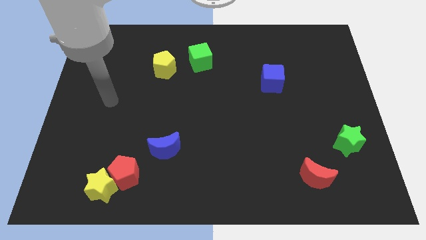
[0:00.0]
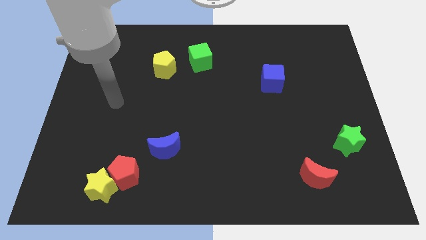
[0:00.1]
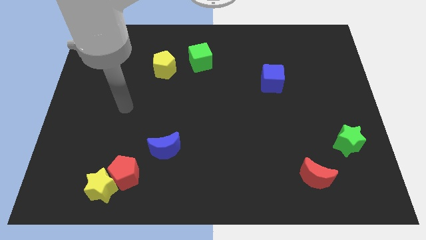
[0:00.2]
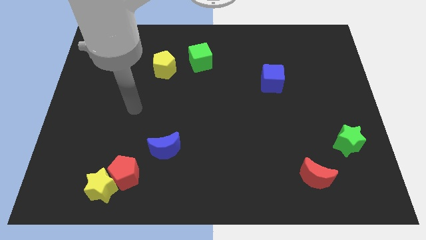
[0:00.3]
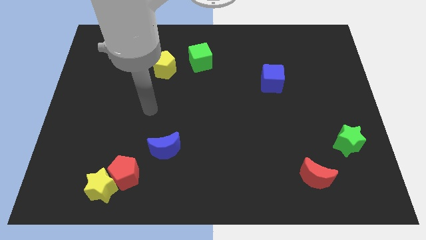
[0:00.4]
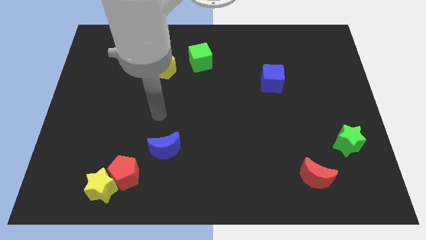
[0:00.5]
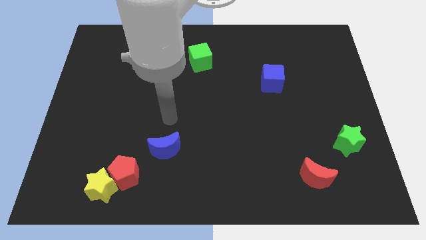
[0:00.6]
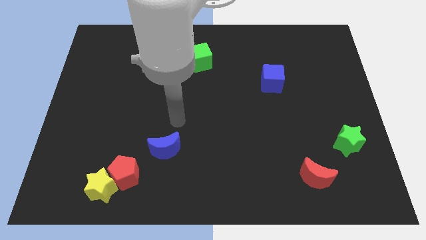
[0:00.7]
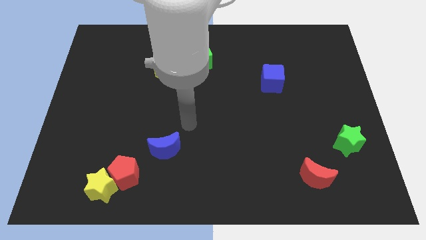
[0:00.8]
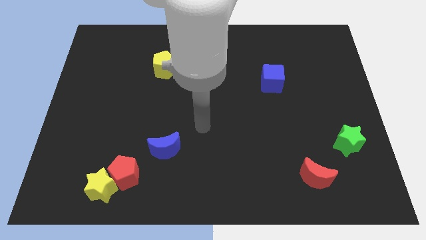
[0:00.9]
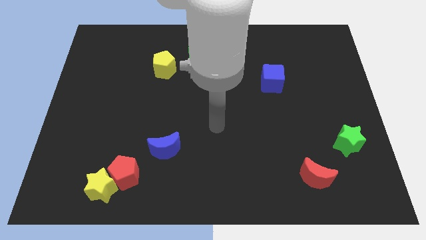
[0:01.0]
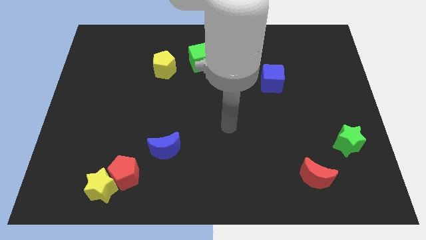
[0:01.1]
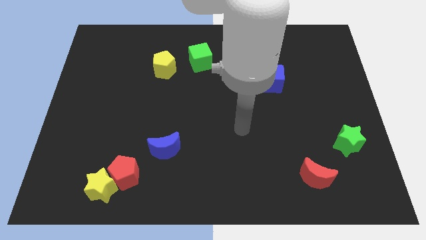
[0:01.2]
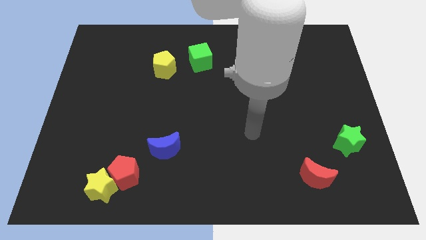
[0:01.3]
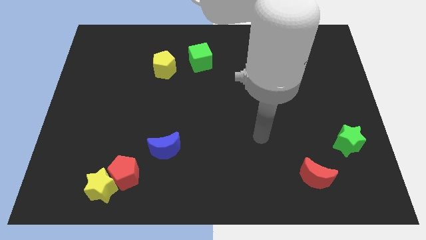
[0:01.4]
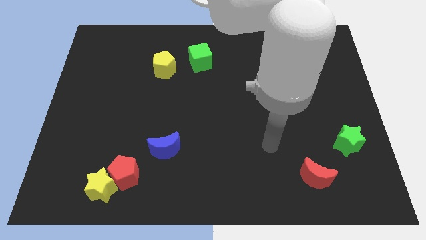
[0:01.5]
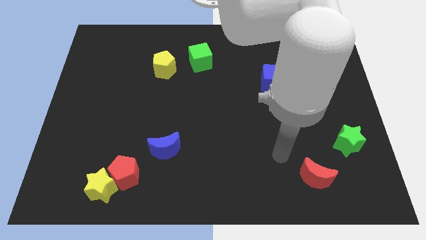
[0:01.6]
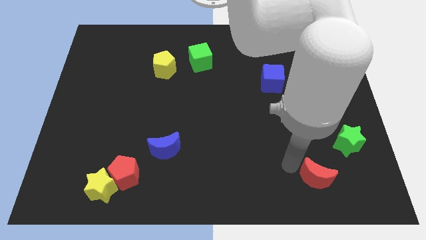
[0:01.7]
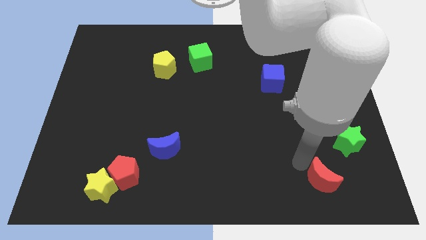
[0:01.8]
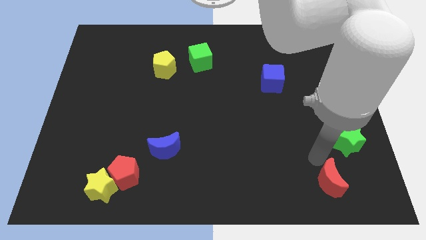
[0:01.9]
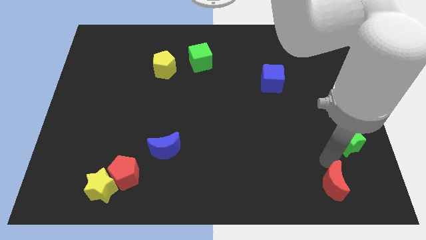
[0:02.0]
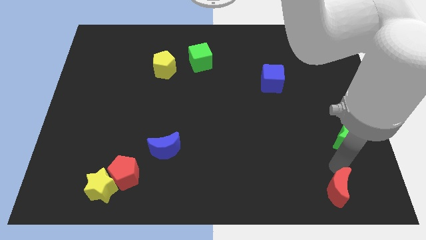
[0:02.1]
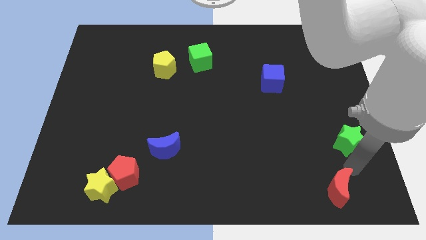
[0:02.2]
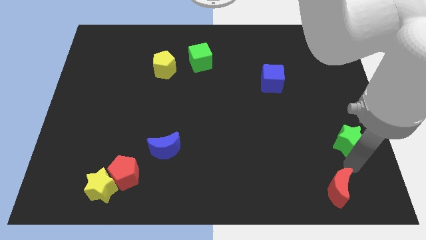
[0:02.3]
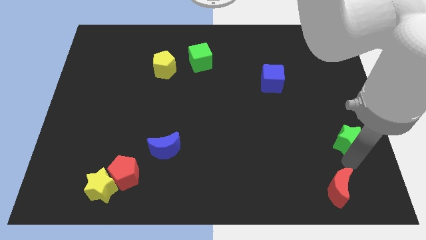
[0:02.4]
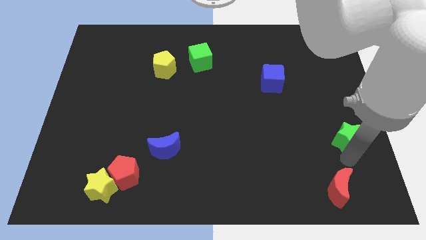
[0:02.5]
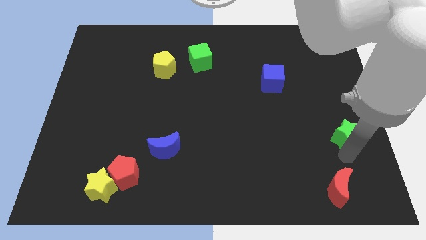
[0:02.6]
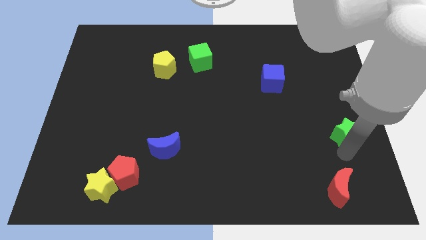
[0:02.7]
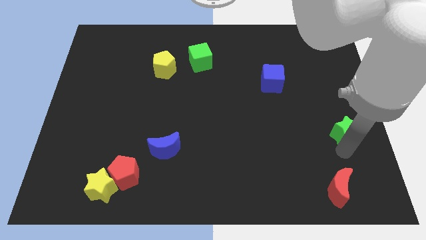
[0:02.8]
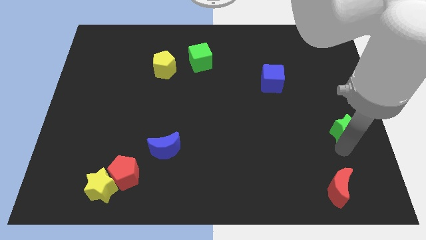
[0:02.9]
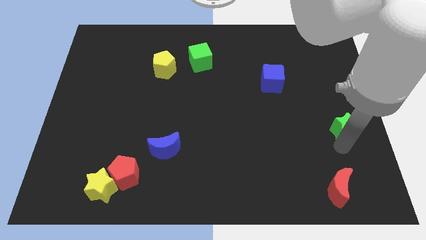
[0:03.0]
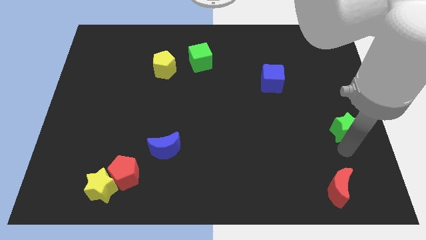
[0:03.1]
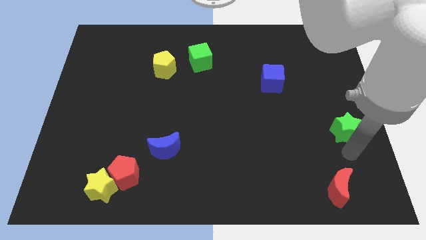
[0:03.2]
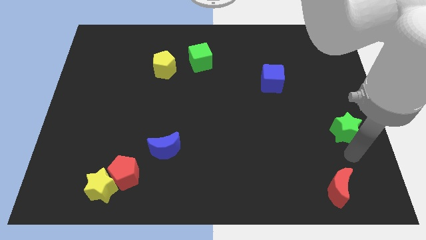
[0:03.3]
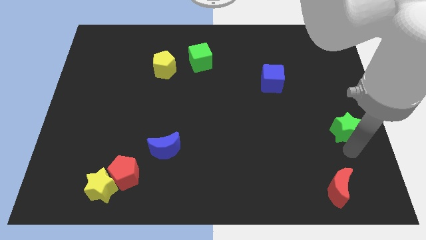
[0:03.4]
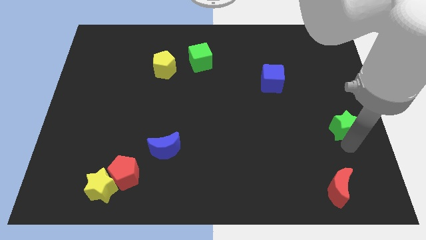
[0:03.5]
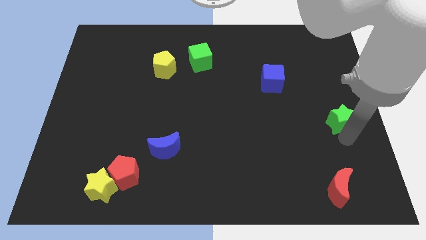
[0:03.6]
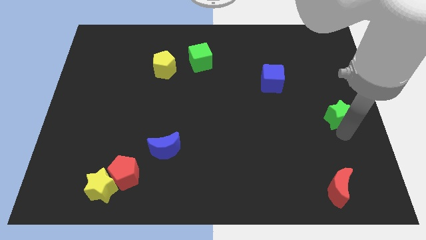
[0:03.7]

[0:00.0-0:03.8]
move the green star upwards a bit

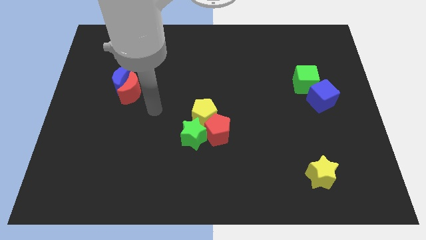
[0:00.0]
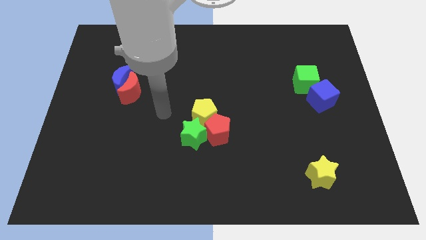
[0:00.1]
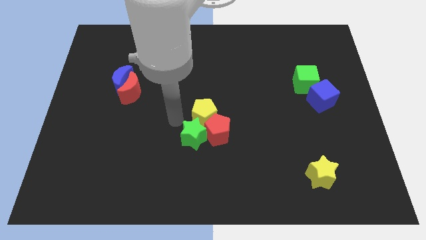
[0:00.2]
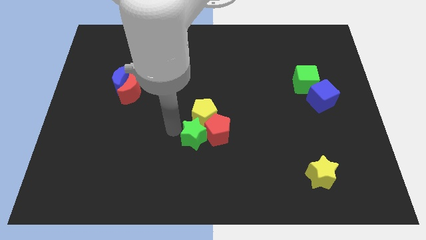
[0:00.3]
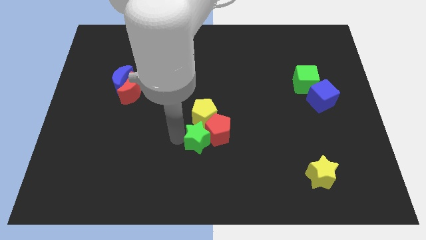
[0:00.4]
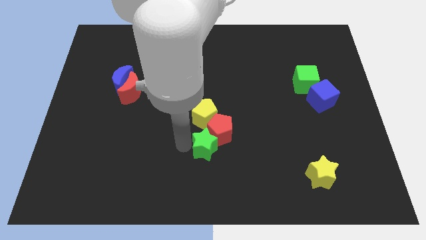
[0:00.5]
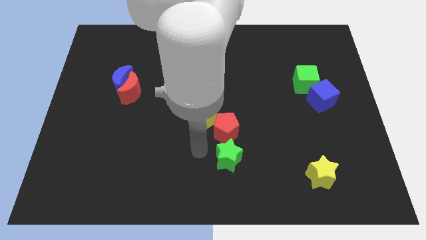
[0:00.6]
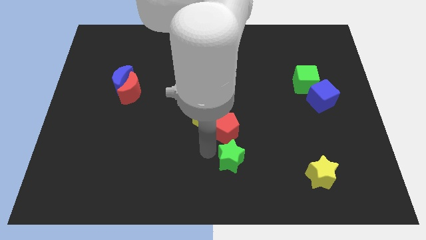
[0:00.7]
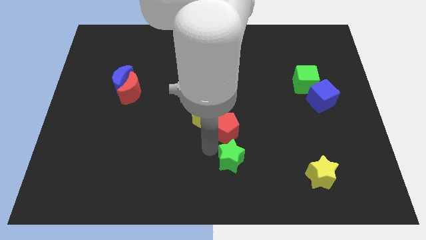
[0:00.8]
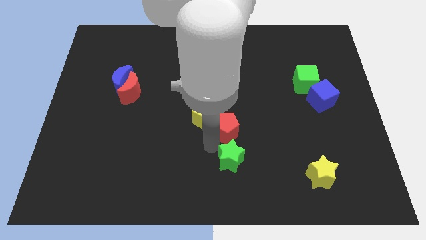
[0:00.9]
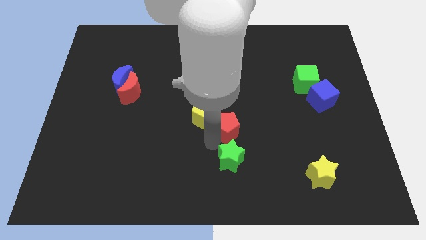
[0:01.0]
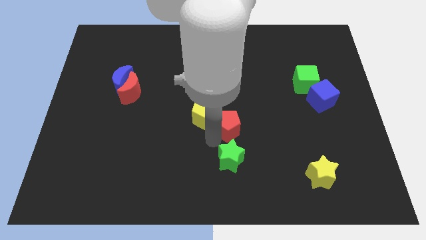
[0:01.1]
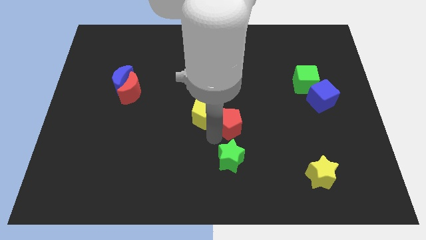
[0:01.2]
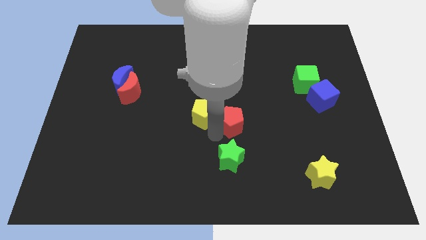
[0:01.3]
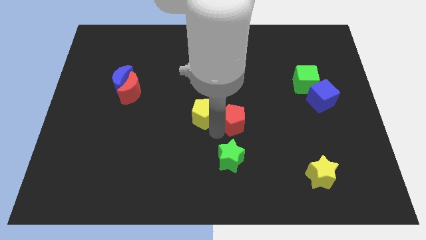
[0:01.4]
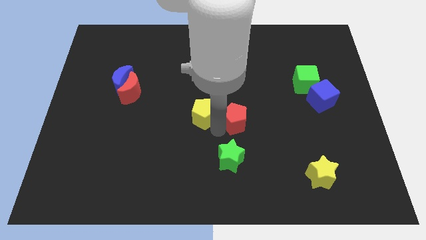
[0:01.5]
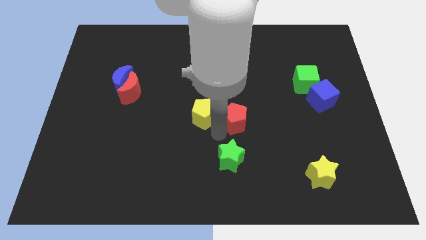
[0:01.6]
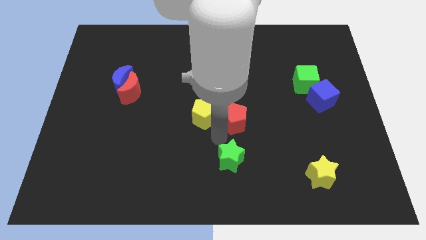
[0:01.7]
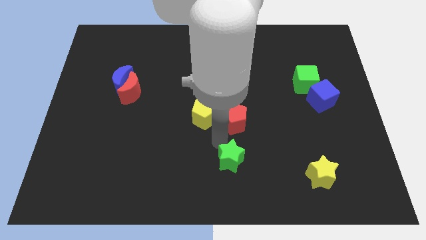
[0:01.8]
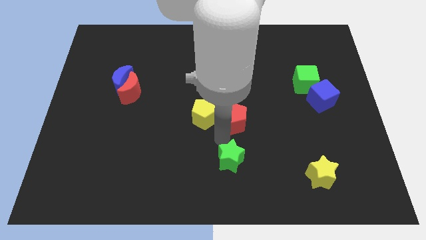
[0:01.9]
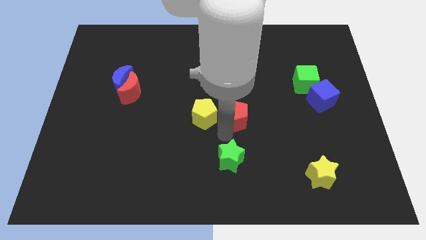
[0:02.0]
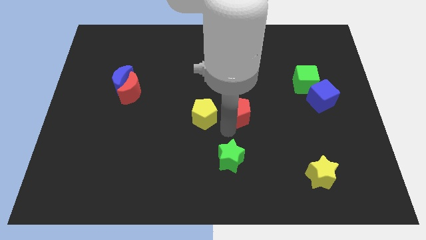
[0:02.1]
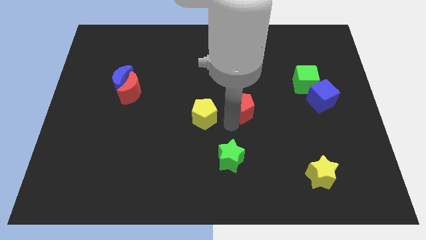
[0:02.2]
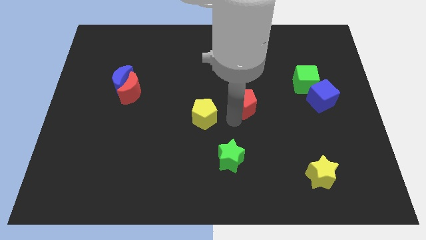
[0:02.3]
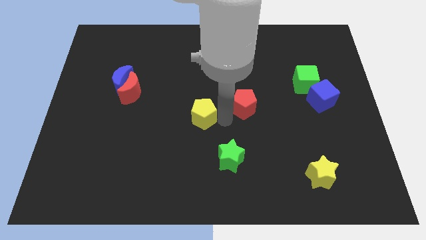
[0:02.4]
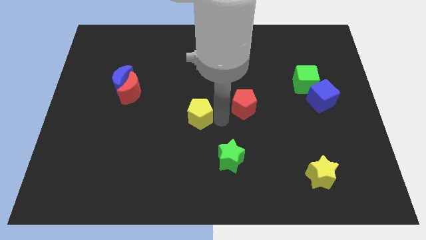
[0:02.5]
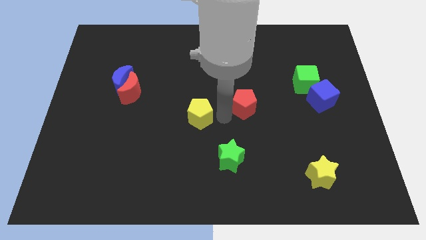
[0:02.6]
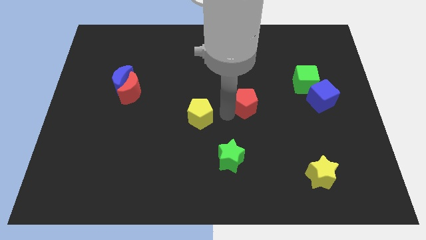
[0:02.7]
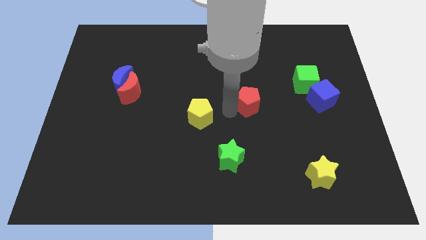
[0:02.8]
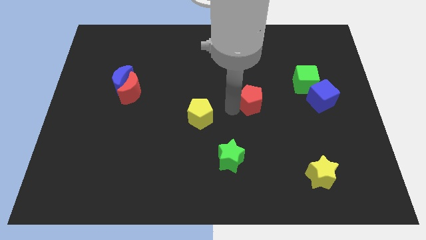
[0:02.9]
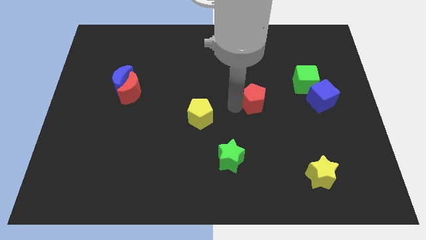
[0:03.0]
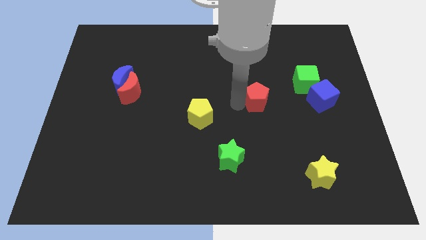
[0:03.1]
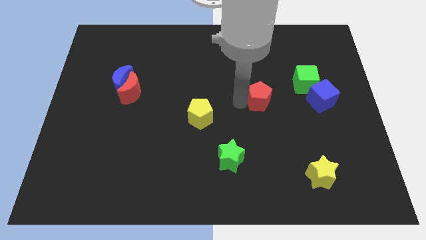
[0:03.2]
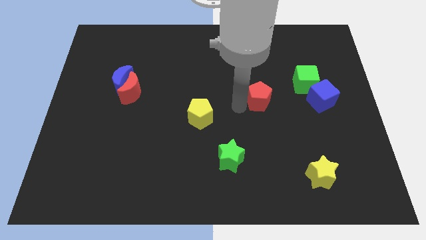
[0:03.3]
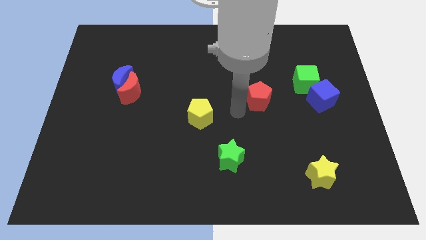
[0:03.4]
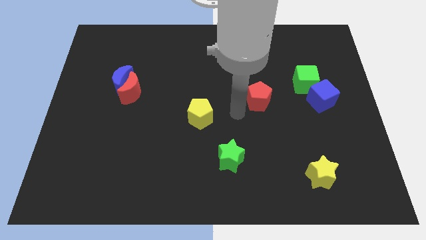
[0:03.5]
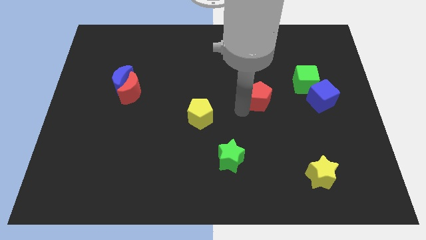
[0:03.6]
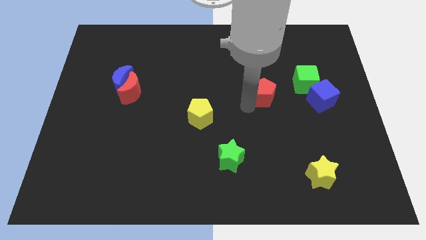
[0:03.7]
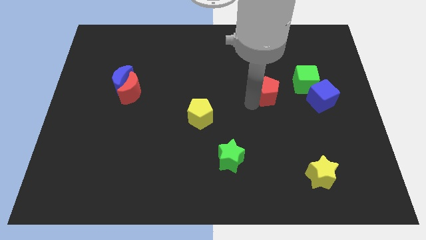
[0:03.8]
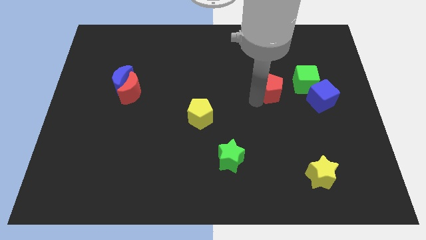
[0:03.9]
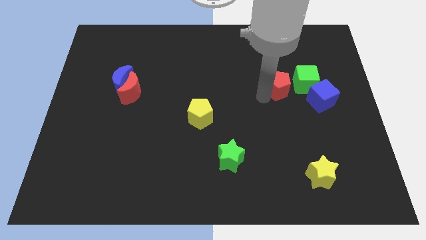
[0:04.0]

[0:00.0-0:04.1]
push the red pentagon upwards and to the right
